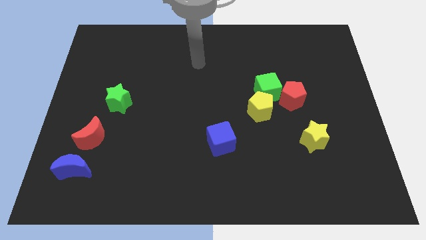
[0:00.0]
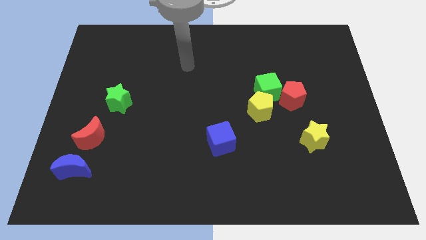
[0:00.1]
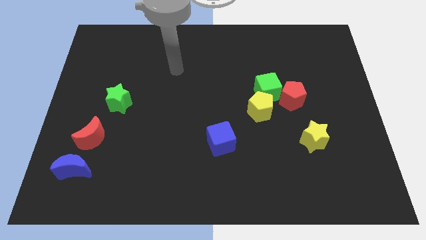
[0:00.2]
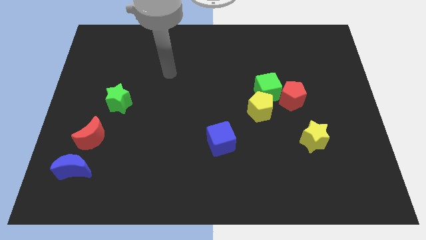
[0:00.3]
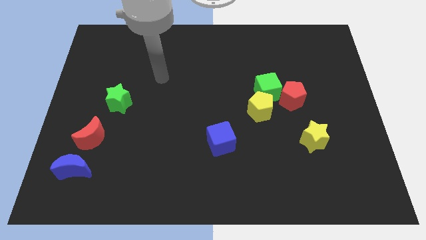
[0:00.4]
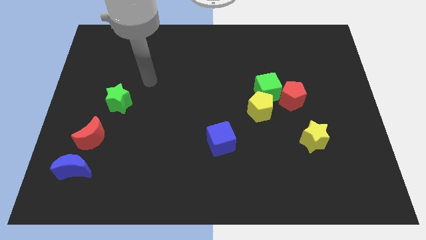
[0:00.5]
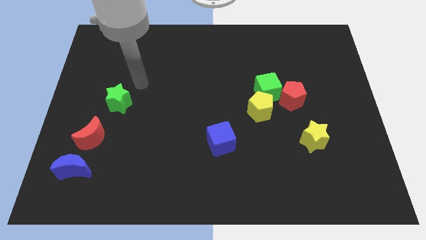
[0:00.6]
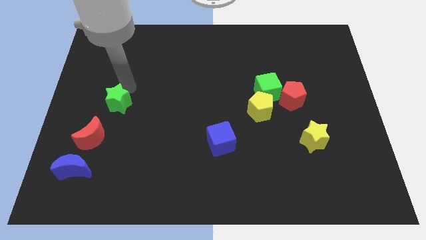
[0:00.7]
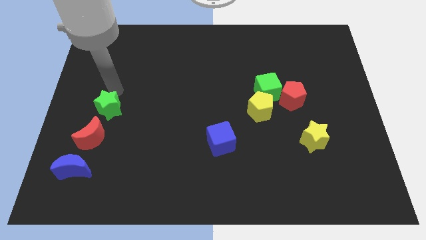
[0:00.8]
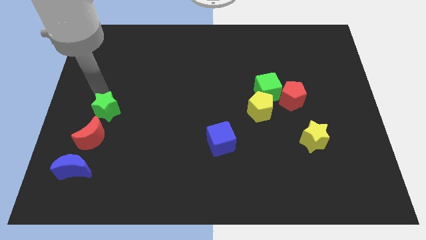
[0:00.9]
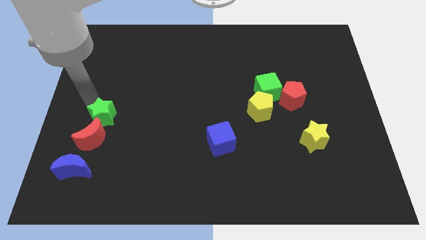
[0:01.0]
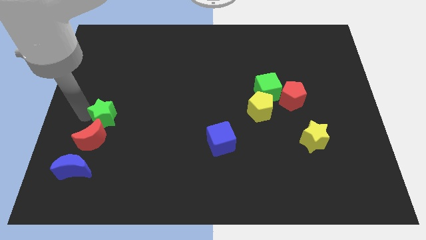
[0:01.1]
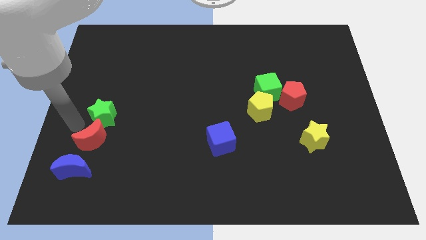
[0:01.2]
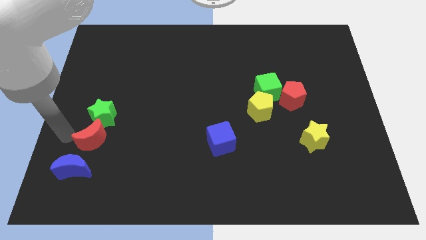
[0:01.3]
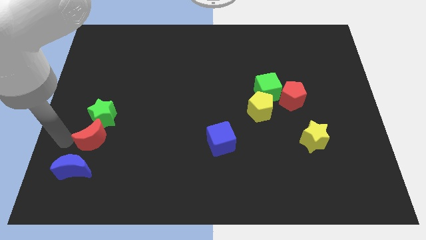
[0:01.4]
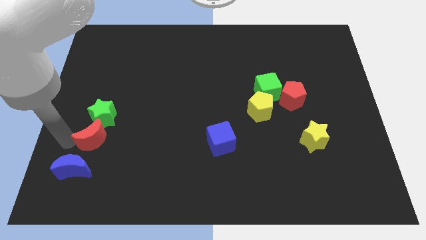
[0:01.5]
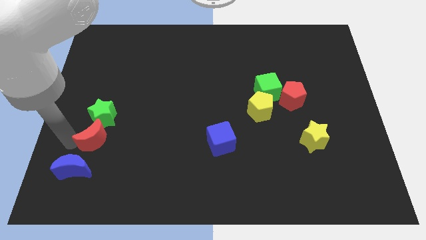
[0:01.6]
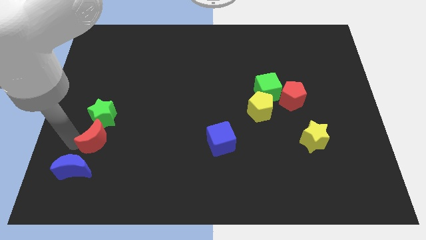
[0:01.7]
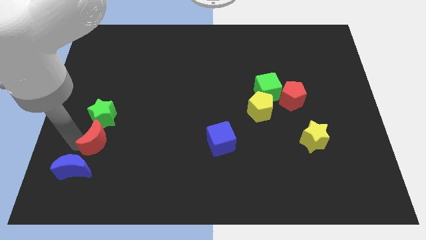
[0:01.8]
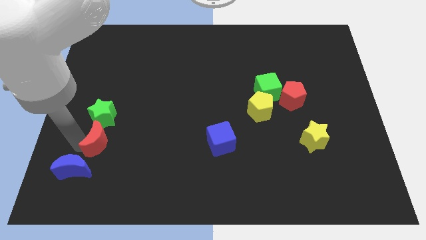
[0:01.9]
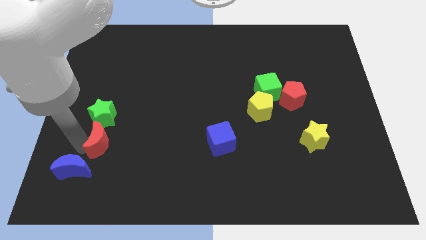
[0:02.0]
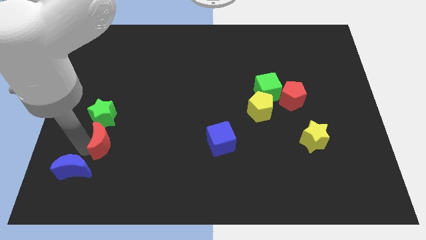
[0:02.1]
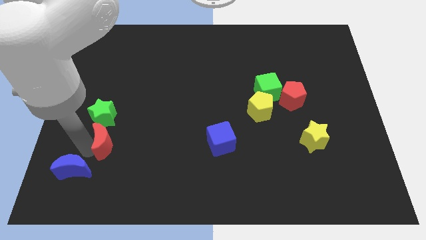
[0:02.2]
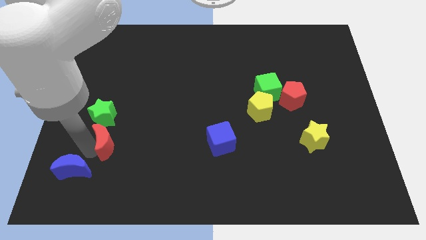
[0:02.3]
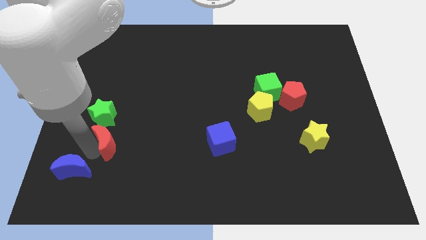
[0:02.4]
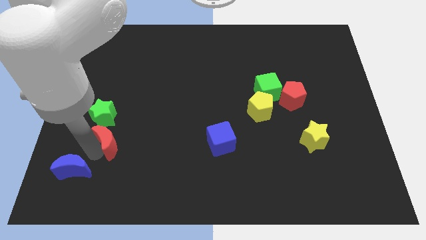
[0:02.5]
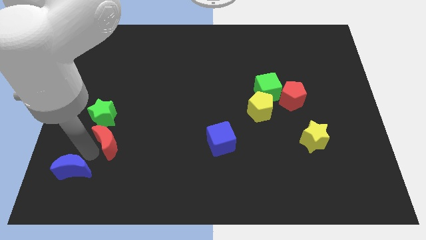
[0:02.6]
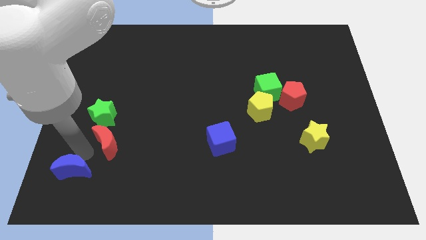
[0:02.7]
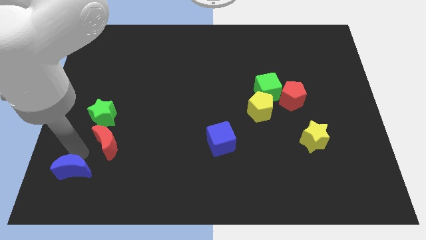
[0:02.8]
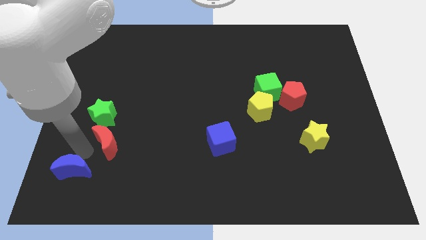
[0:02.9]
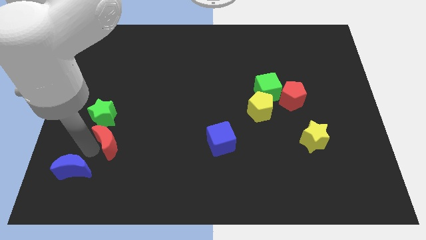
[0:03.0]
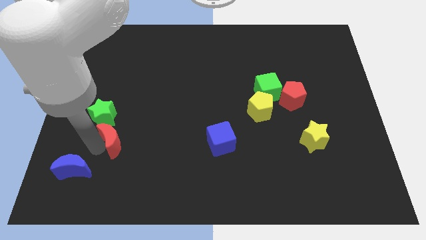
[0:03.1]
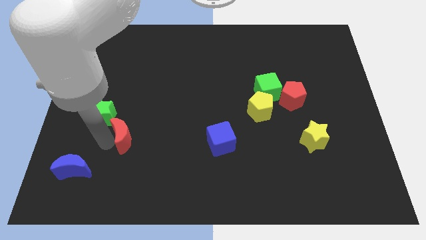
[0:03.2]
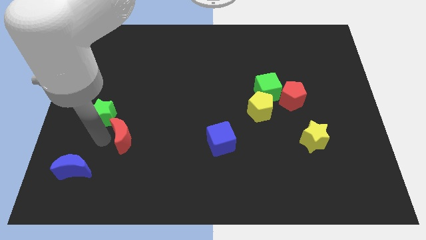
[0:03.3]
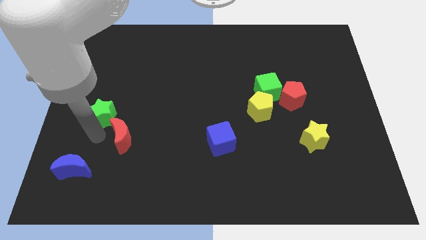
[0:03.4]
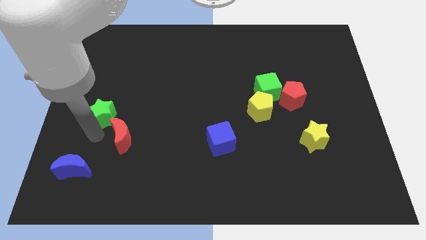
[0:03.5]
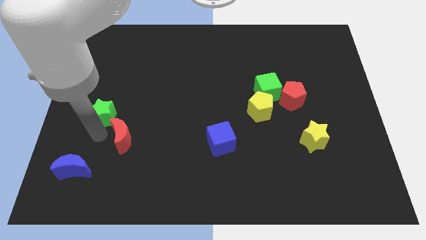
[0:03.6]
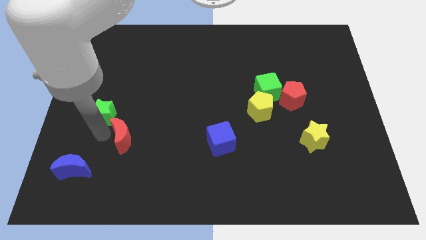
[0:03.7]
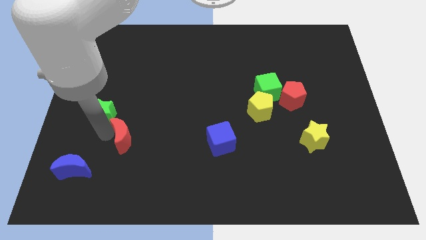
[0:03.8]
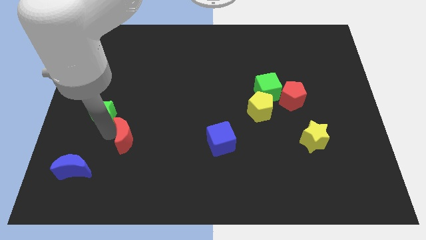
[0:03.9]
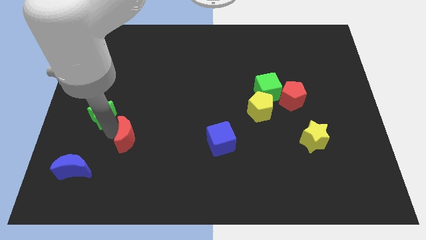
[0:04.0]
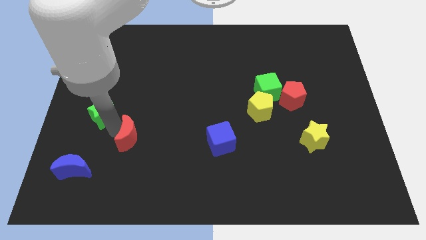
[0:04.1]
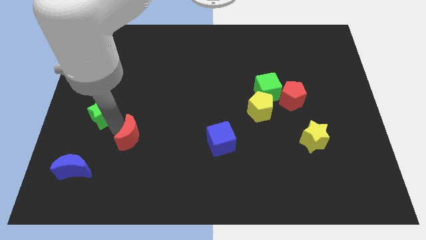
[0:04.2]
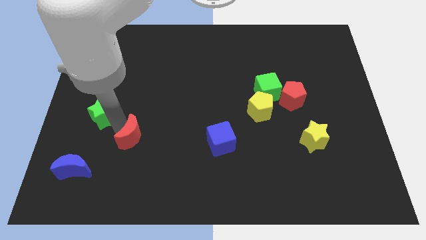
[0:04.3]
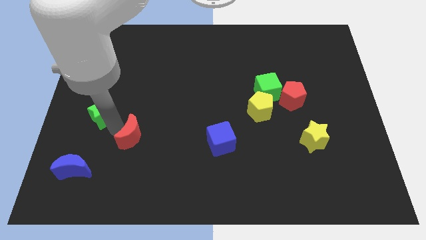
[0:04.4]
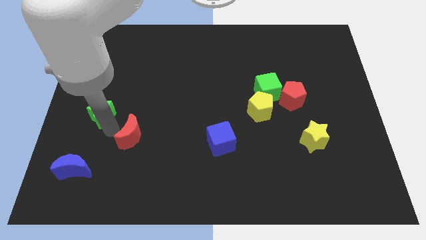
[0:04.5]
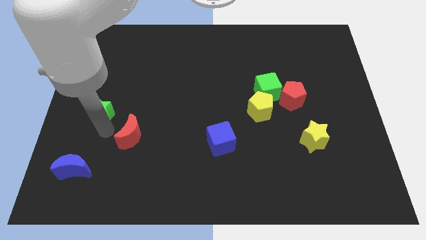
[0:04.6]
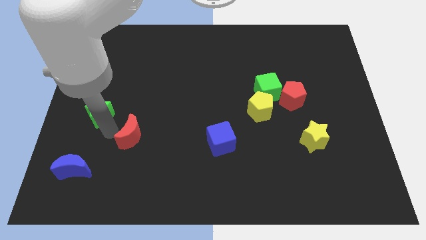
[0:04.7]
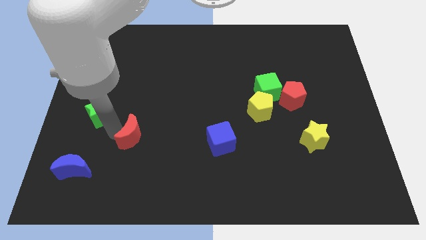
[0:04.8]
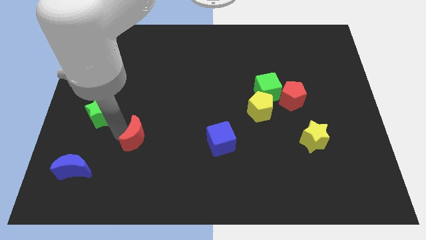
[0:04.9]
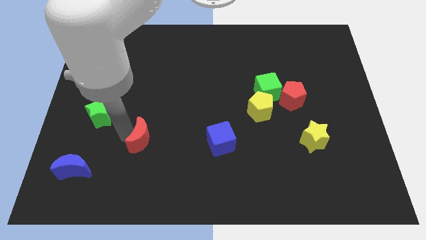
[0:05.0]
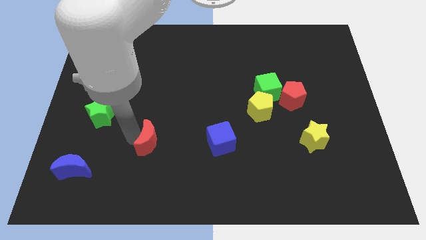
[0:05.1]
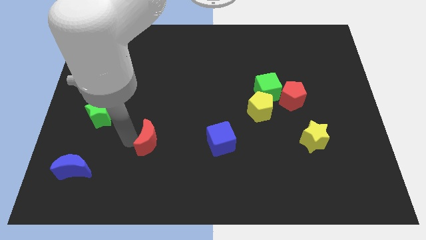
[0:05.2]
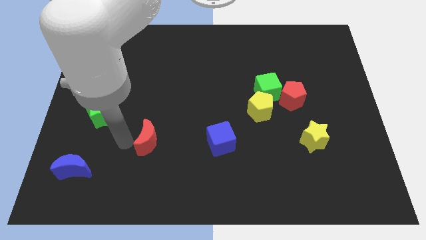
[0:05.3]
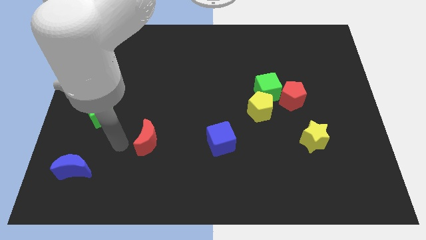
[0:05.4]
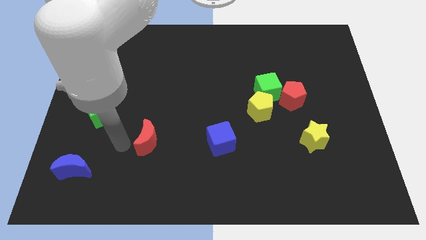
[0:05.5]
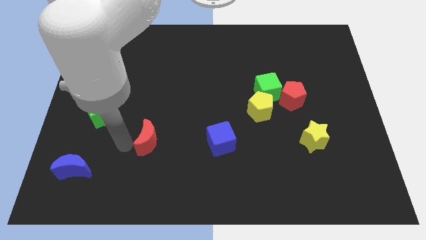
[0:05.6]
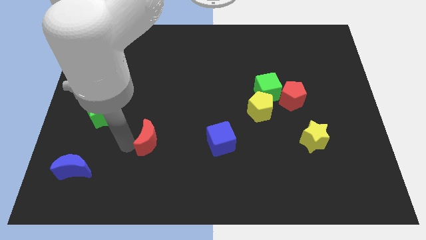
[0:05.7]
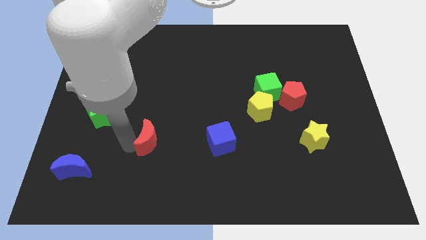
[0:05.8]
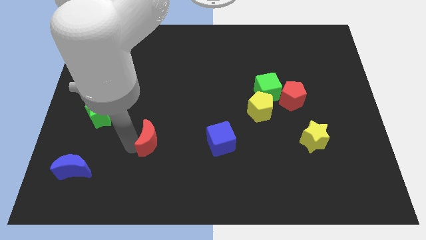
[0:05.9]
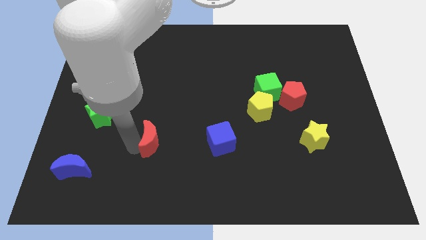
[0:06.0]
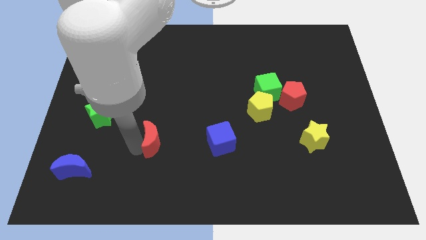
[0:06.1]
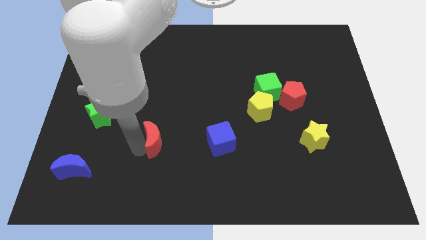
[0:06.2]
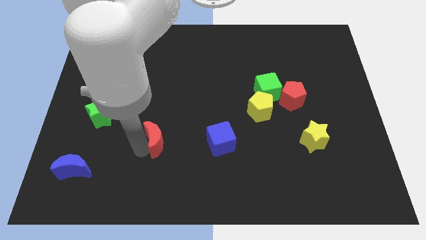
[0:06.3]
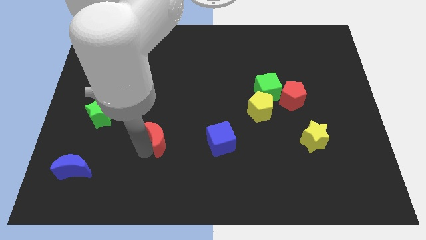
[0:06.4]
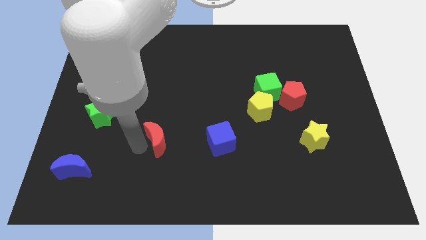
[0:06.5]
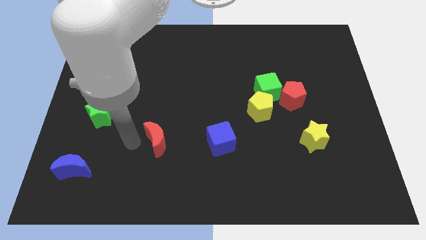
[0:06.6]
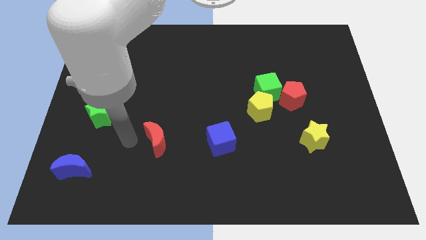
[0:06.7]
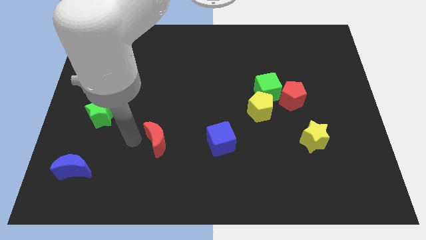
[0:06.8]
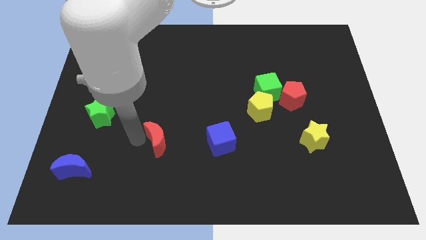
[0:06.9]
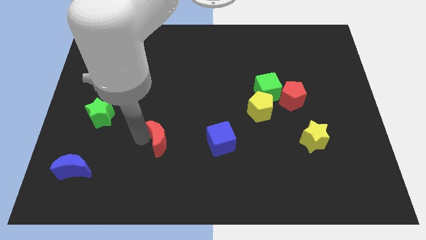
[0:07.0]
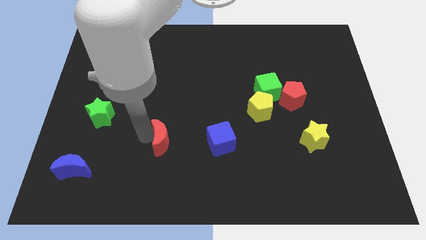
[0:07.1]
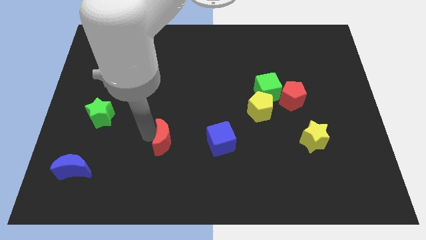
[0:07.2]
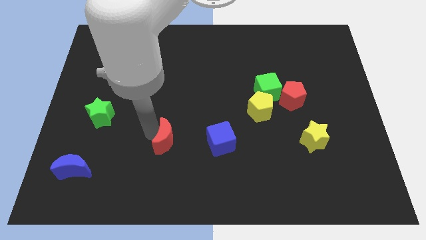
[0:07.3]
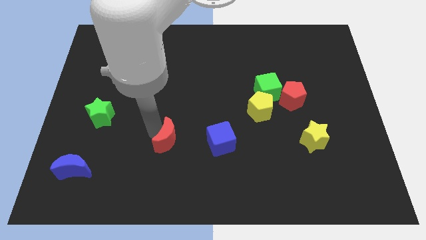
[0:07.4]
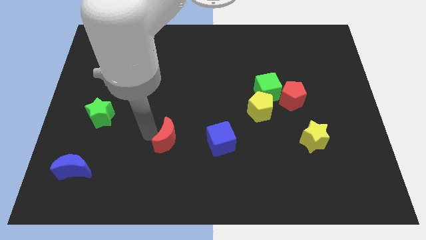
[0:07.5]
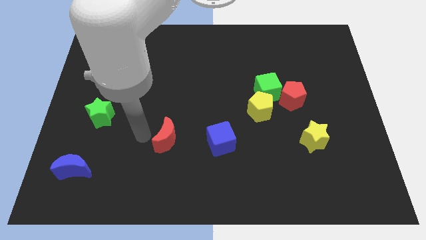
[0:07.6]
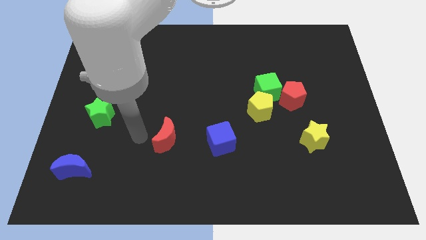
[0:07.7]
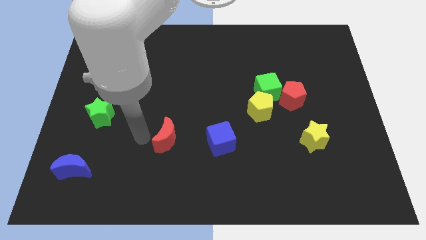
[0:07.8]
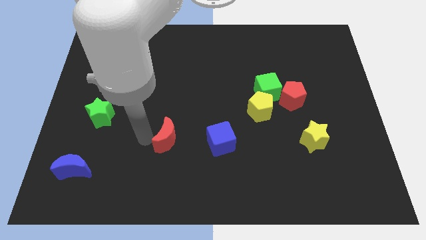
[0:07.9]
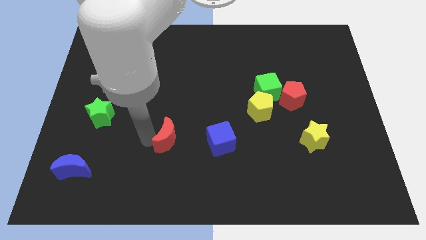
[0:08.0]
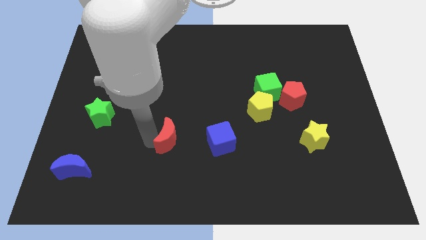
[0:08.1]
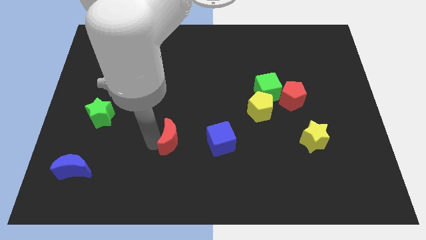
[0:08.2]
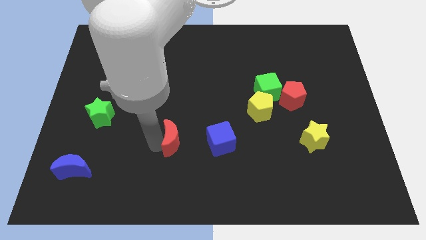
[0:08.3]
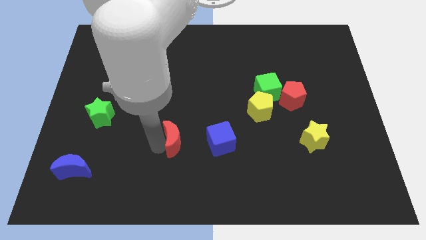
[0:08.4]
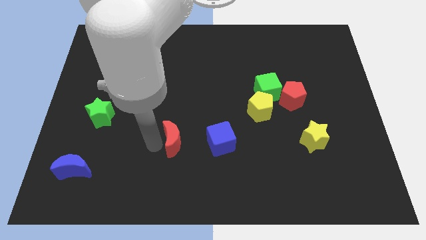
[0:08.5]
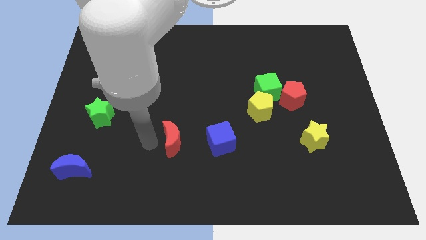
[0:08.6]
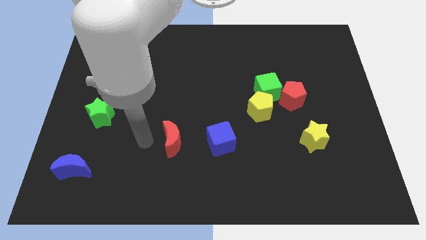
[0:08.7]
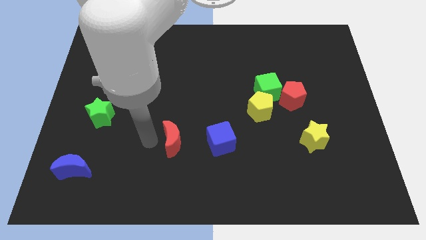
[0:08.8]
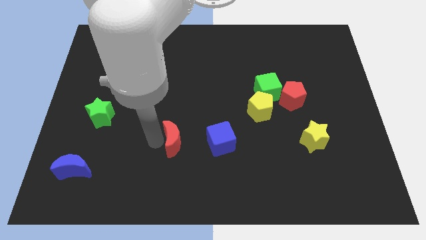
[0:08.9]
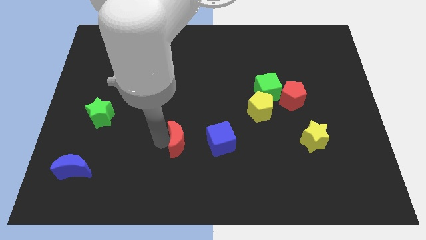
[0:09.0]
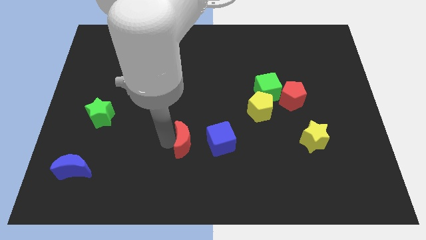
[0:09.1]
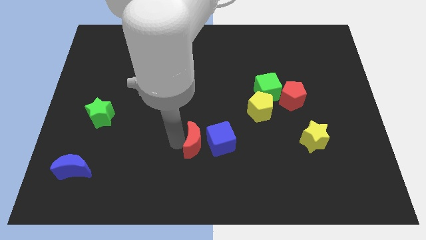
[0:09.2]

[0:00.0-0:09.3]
put the red moon towards the blue cube
